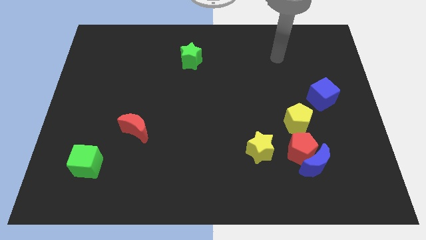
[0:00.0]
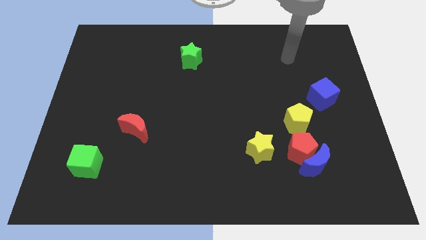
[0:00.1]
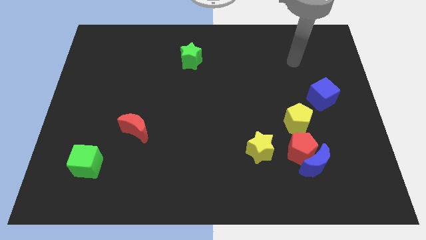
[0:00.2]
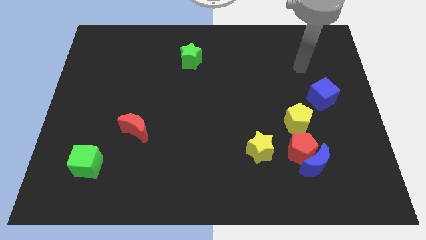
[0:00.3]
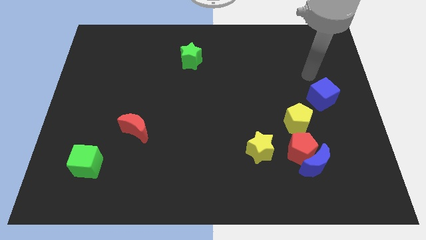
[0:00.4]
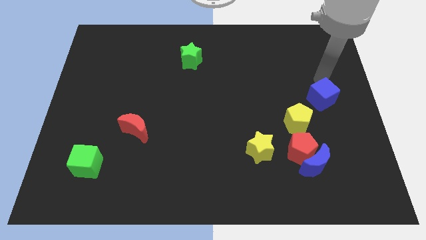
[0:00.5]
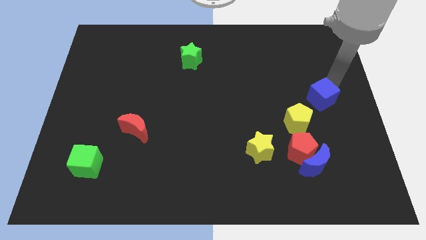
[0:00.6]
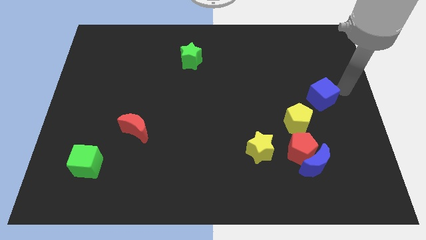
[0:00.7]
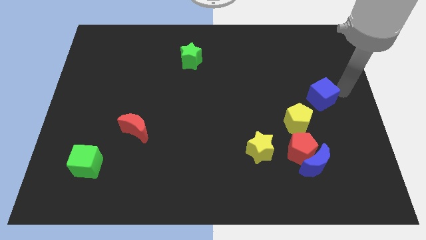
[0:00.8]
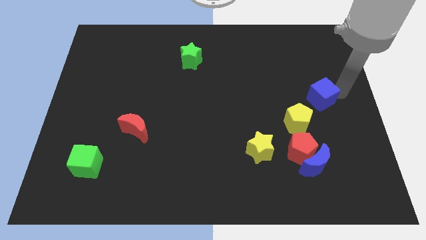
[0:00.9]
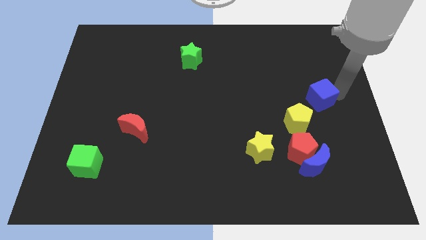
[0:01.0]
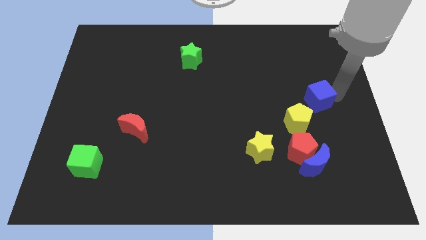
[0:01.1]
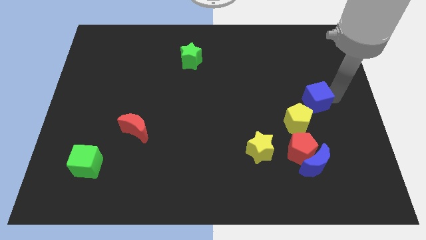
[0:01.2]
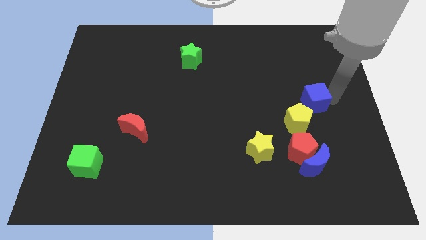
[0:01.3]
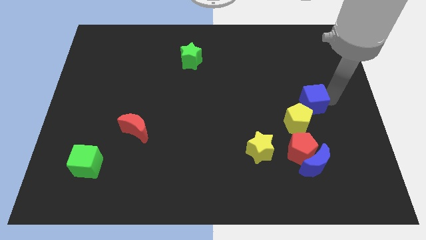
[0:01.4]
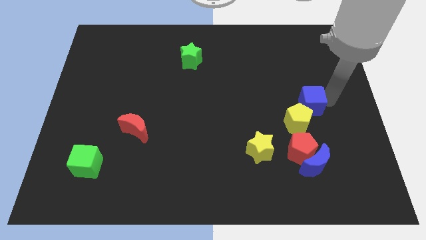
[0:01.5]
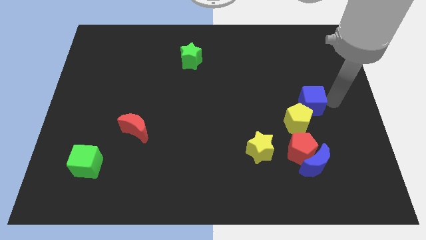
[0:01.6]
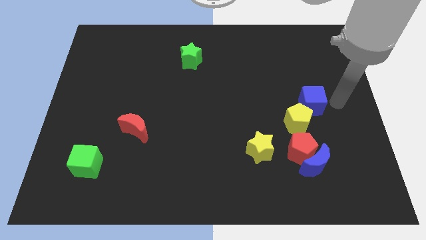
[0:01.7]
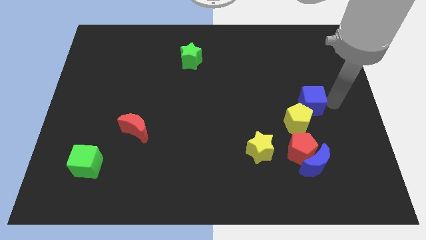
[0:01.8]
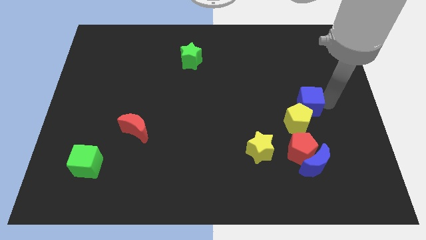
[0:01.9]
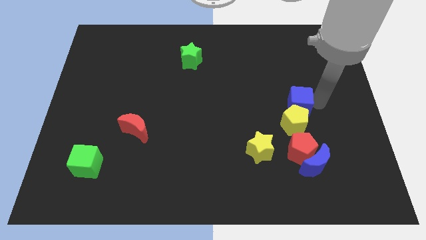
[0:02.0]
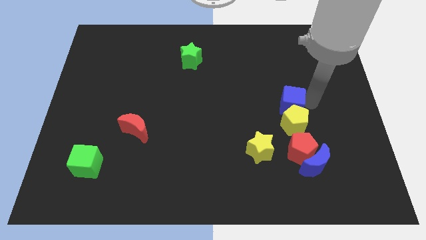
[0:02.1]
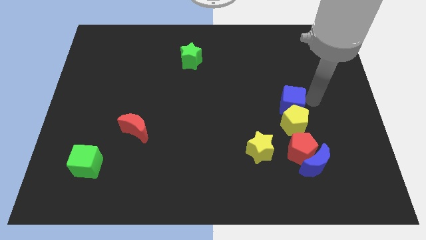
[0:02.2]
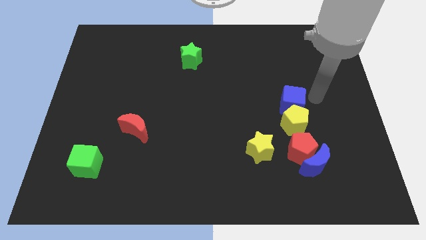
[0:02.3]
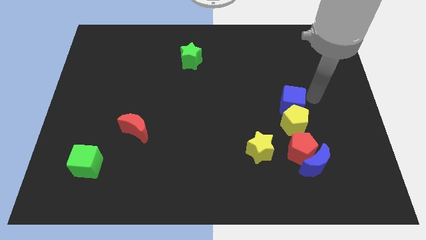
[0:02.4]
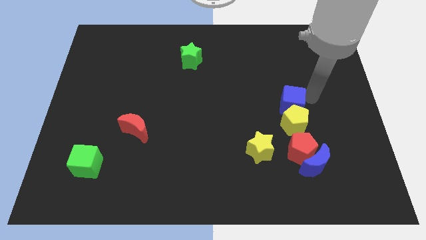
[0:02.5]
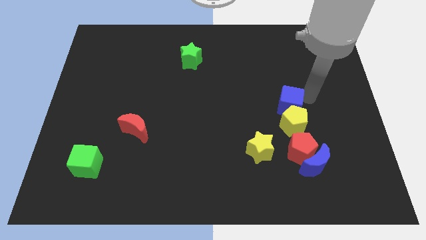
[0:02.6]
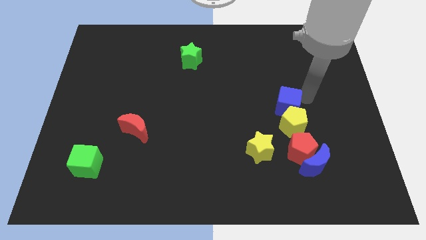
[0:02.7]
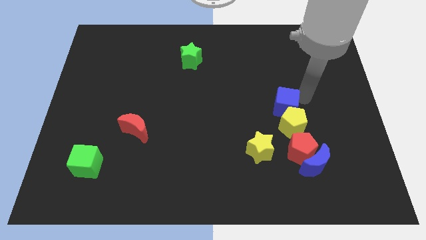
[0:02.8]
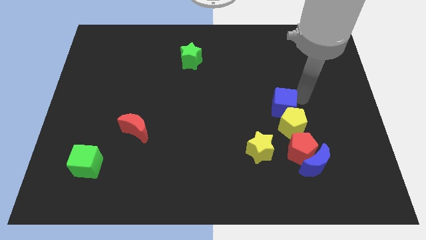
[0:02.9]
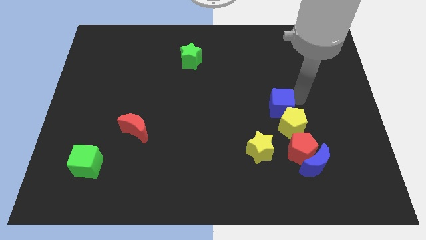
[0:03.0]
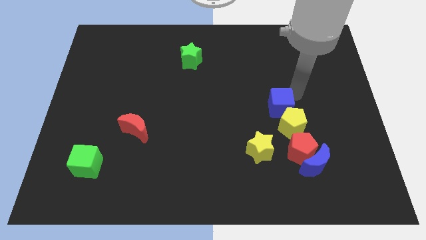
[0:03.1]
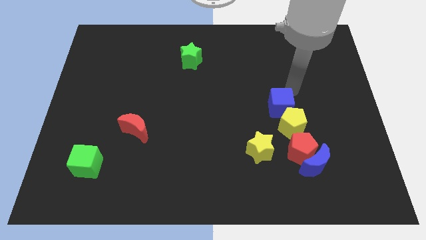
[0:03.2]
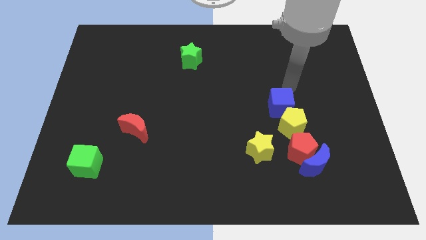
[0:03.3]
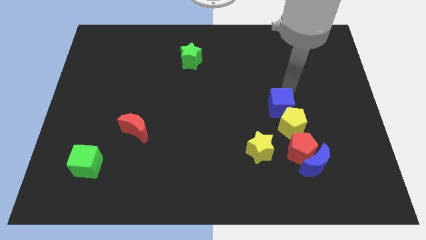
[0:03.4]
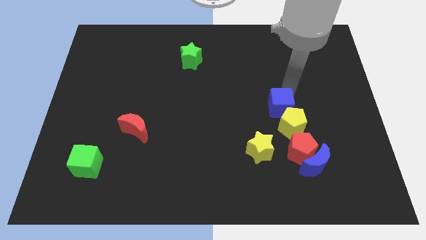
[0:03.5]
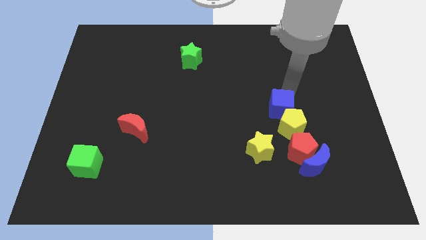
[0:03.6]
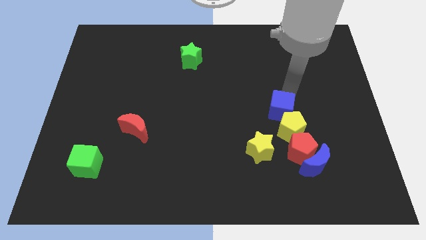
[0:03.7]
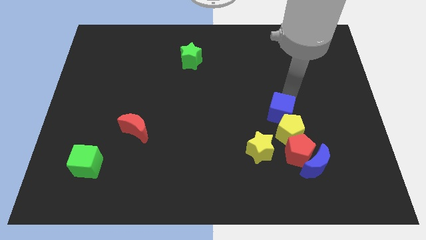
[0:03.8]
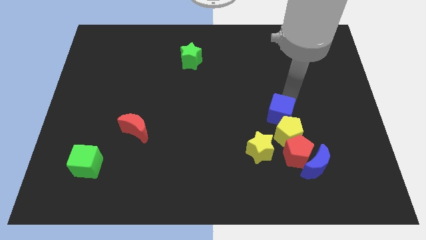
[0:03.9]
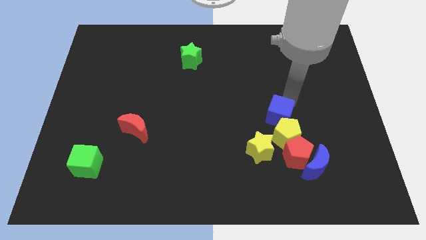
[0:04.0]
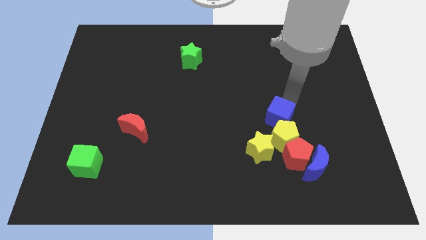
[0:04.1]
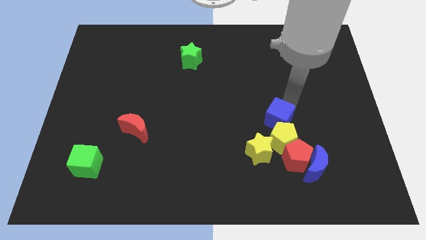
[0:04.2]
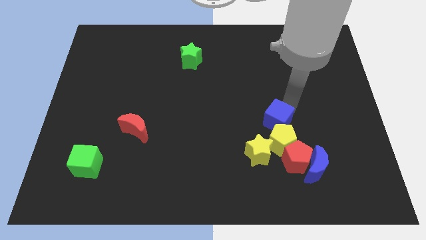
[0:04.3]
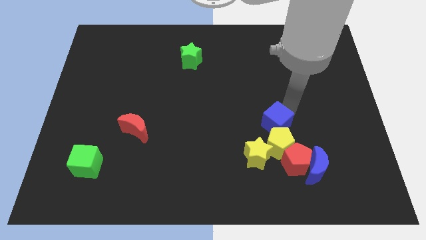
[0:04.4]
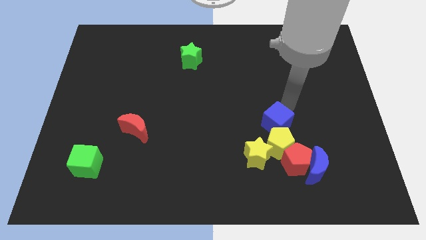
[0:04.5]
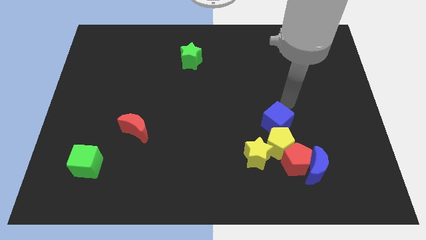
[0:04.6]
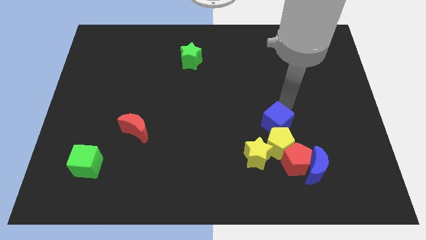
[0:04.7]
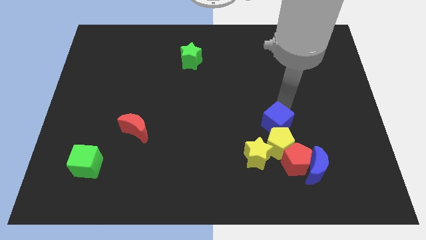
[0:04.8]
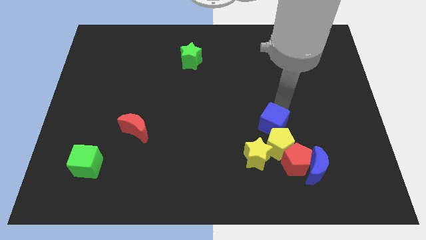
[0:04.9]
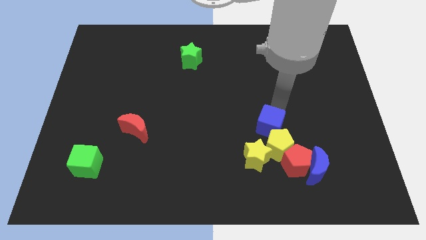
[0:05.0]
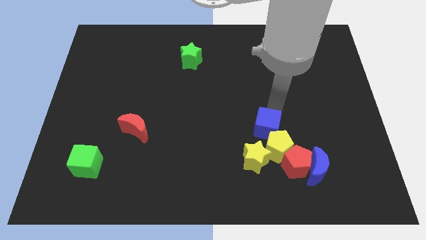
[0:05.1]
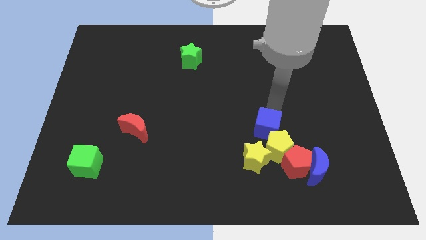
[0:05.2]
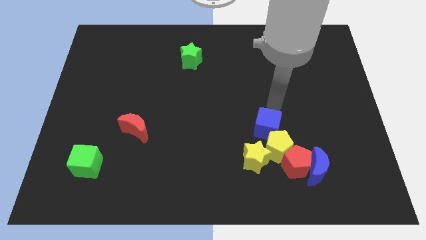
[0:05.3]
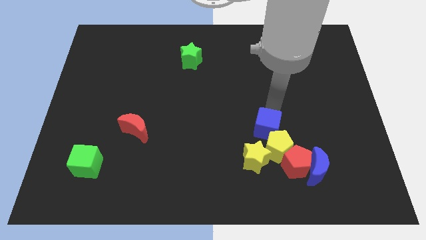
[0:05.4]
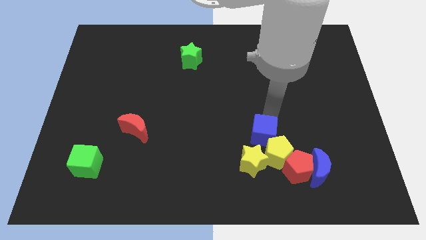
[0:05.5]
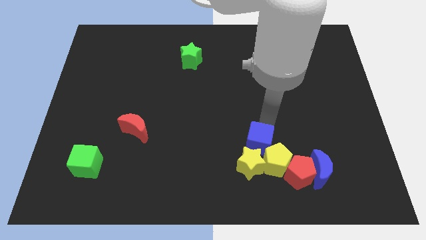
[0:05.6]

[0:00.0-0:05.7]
slide the blue cube towards the yellow star

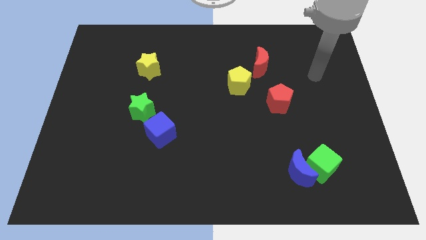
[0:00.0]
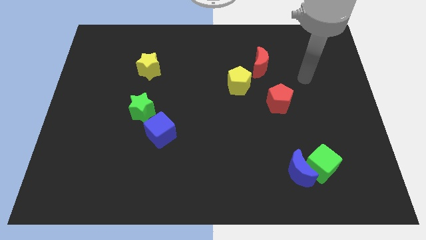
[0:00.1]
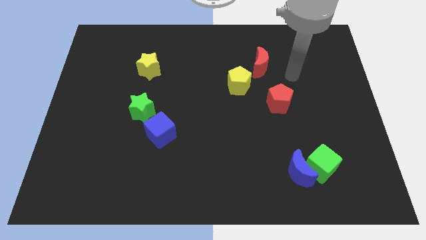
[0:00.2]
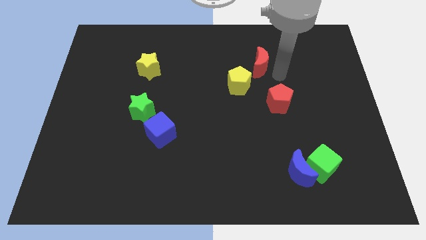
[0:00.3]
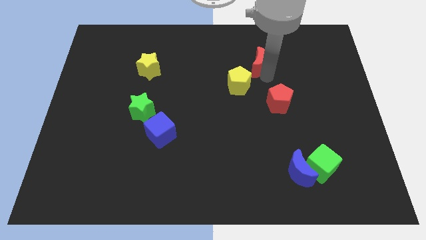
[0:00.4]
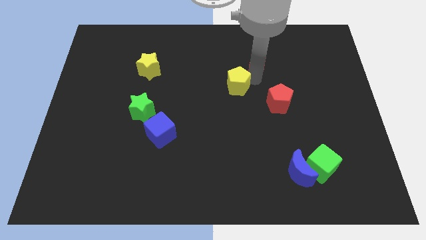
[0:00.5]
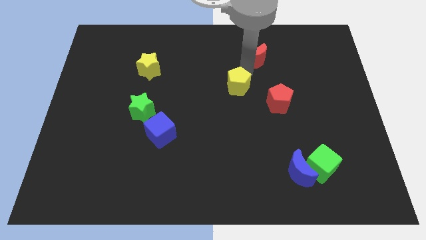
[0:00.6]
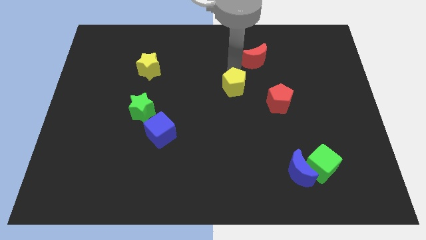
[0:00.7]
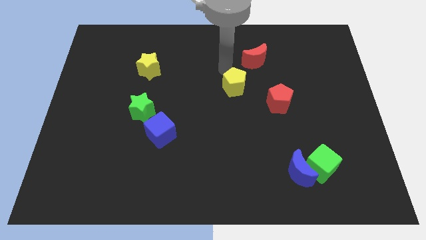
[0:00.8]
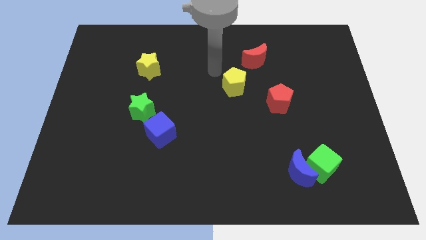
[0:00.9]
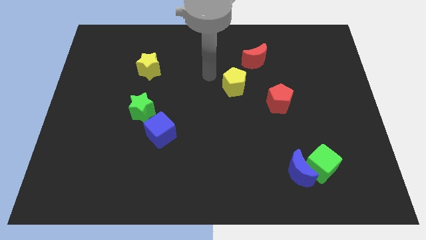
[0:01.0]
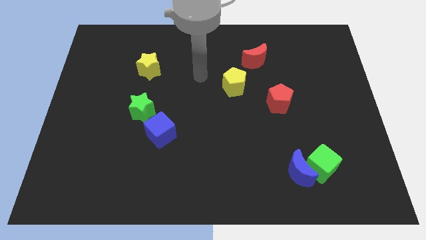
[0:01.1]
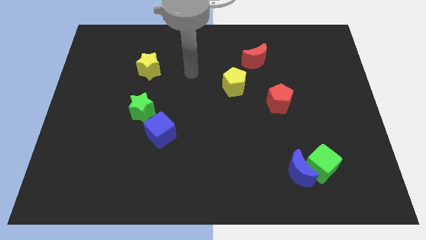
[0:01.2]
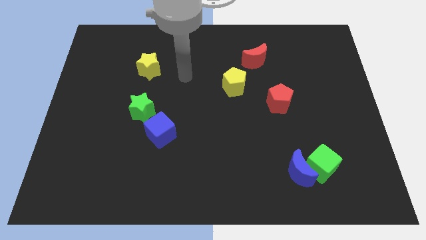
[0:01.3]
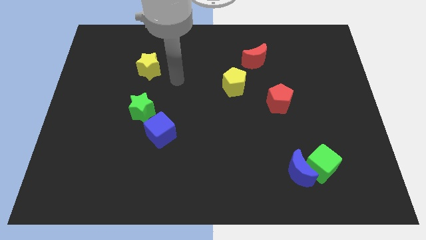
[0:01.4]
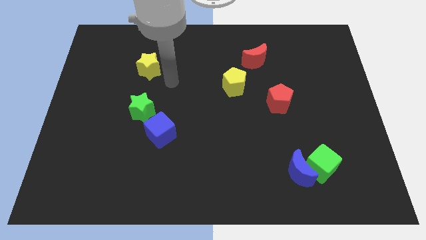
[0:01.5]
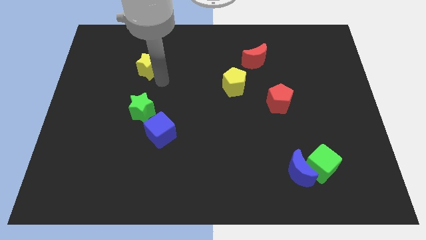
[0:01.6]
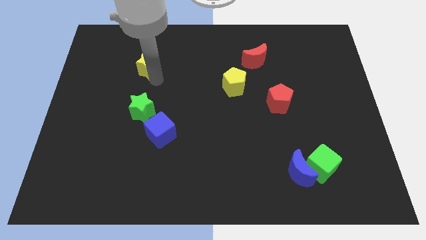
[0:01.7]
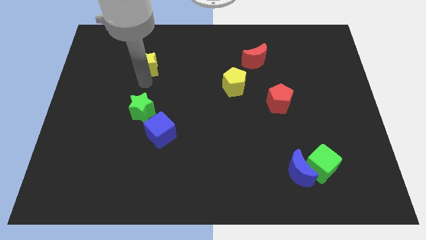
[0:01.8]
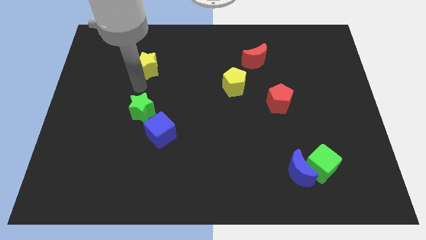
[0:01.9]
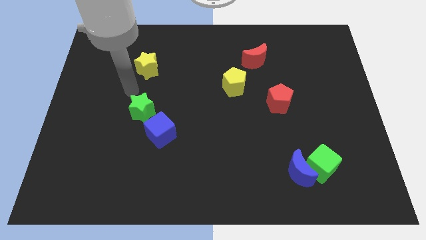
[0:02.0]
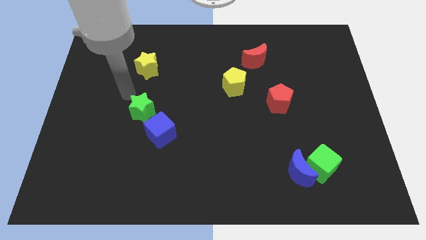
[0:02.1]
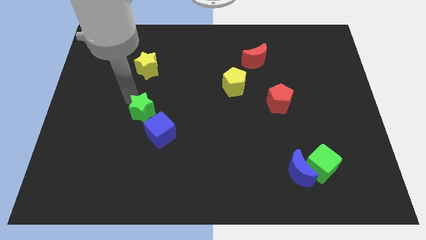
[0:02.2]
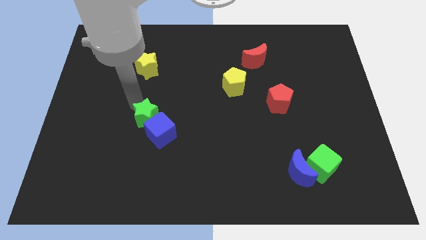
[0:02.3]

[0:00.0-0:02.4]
put the green star close to the blue cube
